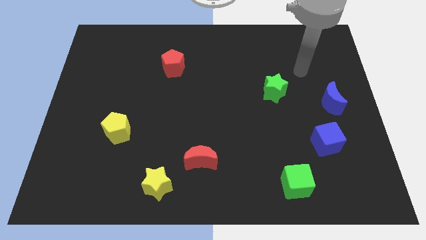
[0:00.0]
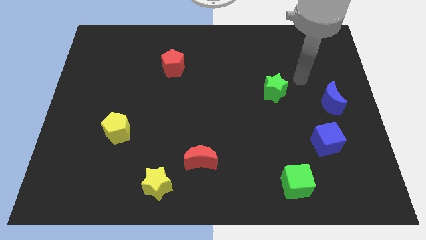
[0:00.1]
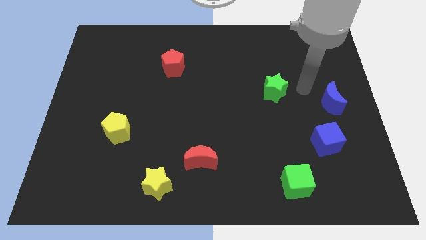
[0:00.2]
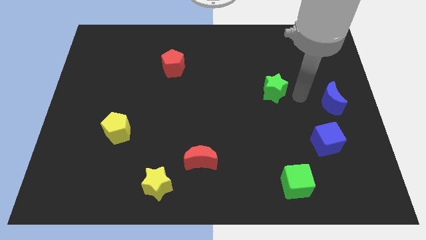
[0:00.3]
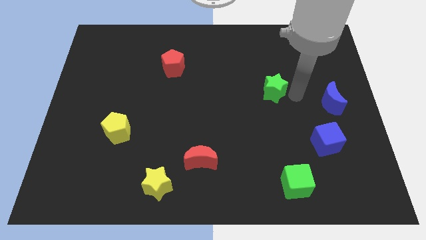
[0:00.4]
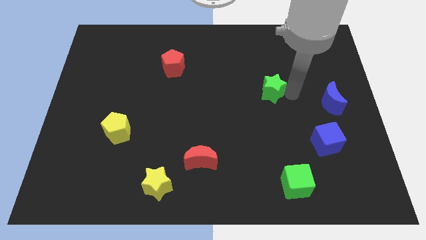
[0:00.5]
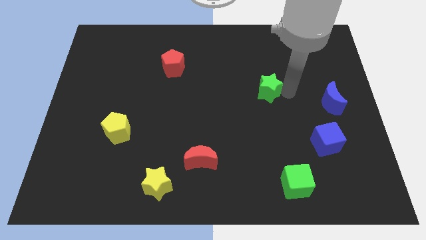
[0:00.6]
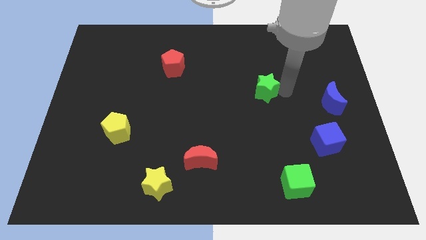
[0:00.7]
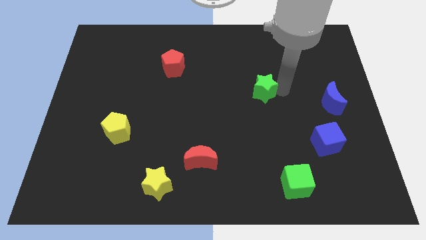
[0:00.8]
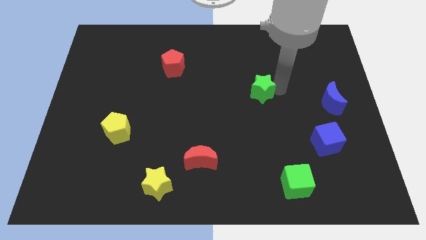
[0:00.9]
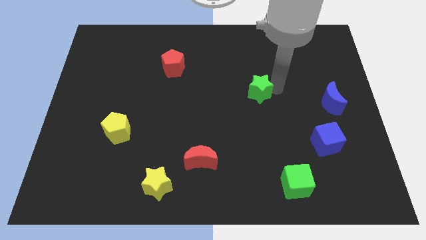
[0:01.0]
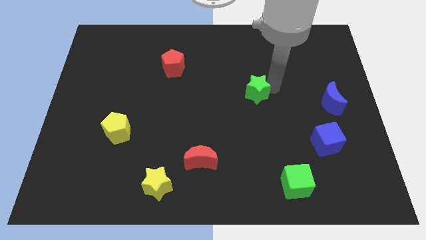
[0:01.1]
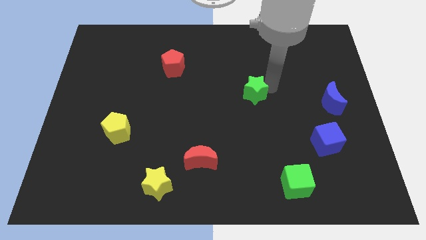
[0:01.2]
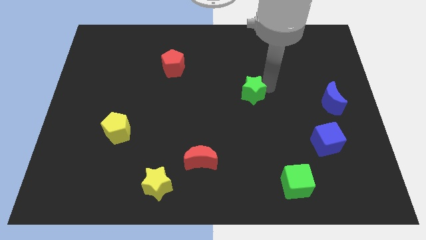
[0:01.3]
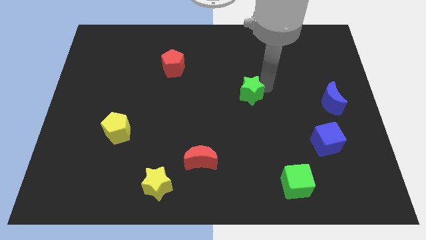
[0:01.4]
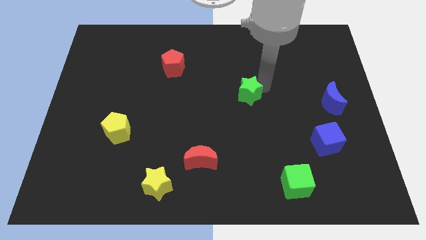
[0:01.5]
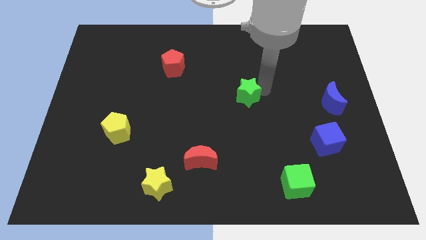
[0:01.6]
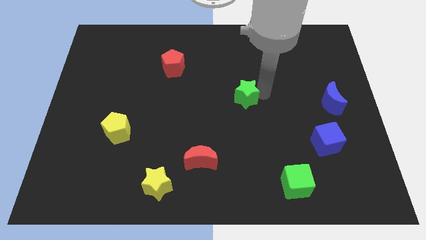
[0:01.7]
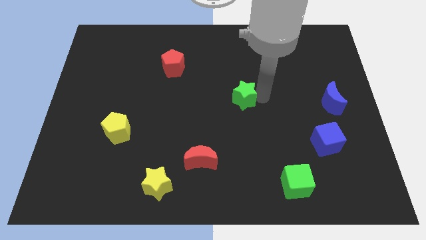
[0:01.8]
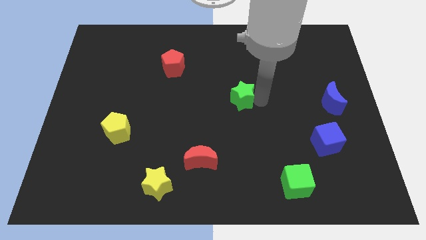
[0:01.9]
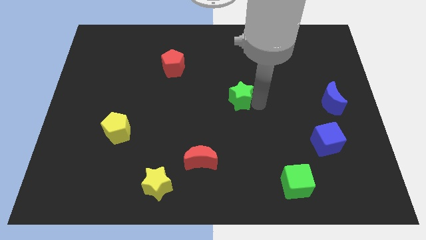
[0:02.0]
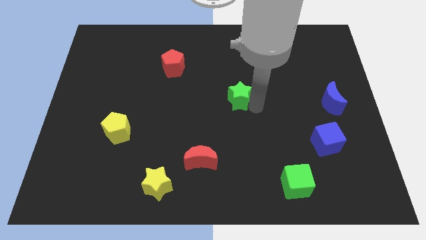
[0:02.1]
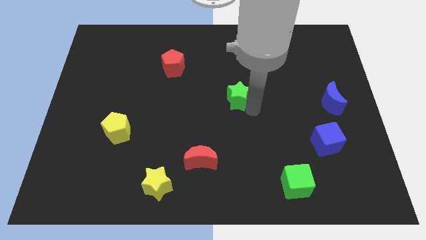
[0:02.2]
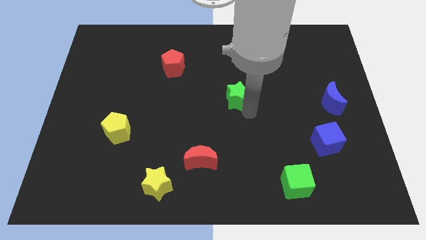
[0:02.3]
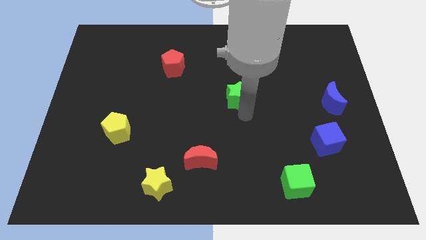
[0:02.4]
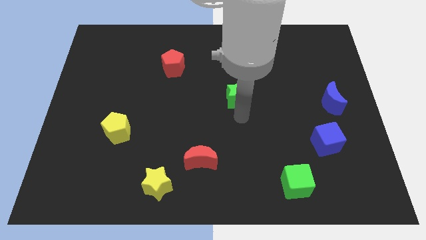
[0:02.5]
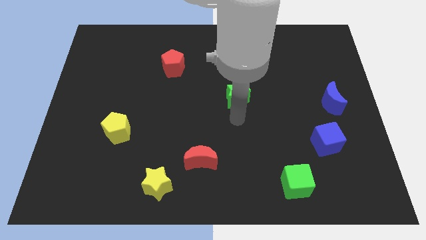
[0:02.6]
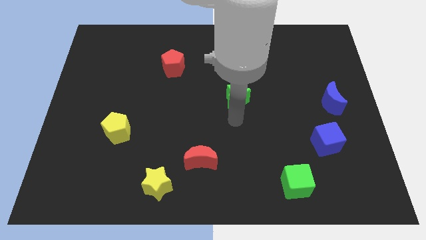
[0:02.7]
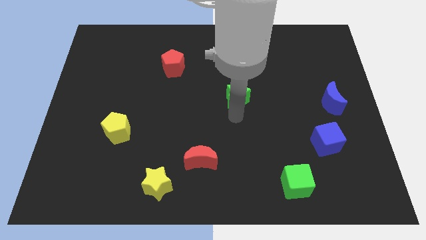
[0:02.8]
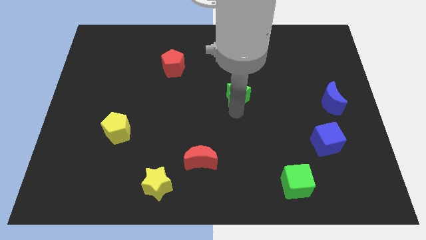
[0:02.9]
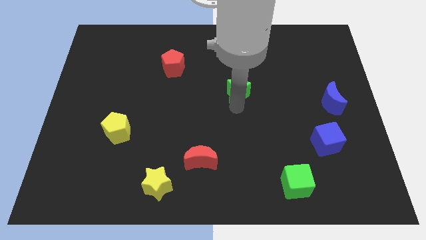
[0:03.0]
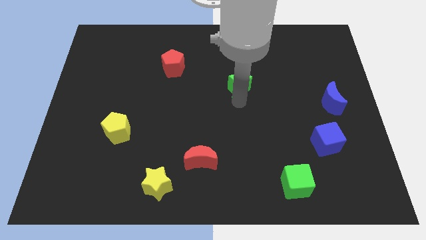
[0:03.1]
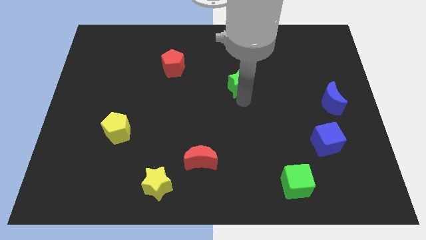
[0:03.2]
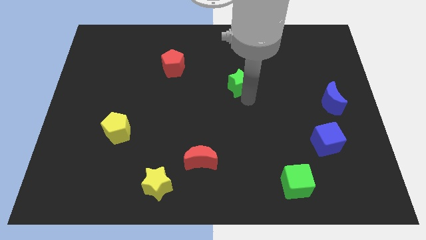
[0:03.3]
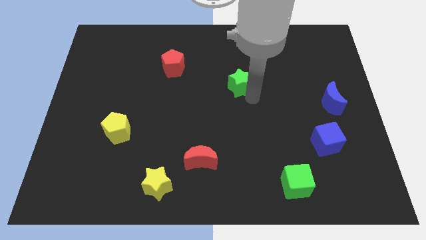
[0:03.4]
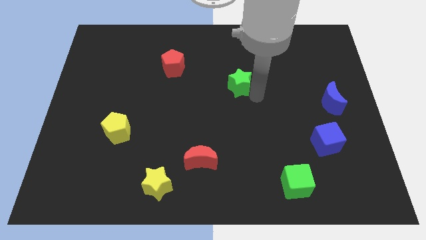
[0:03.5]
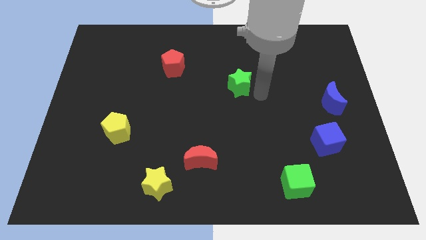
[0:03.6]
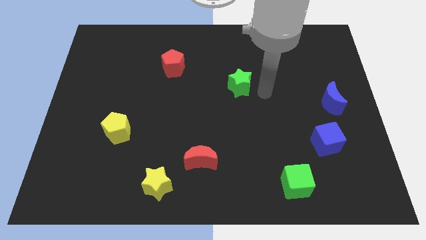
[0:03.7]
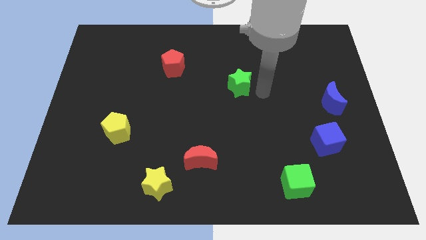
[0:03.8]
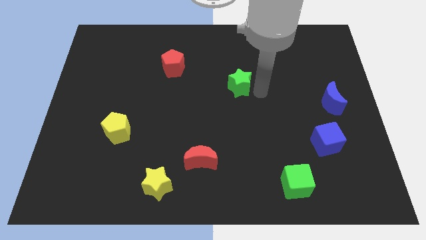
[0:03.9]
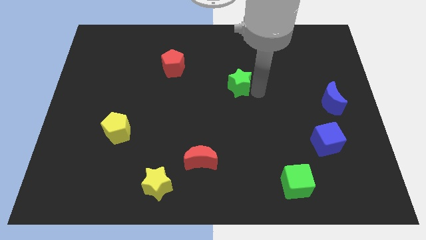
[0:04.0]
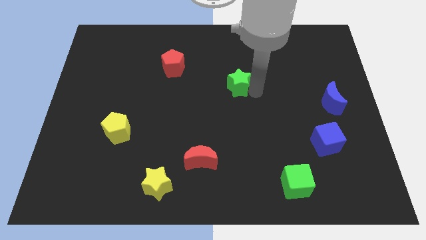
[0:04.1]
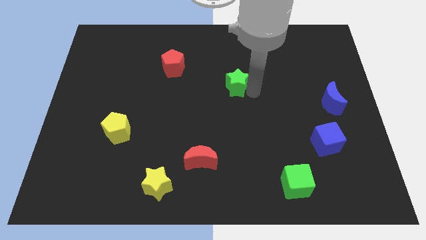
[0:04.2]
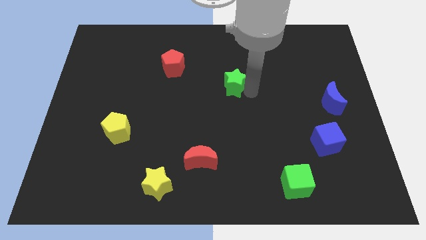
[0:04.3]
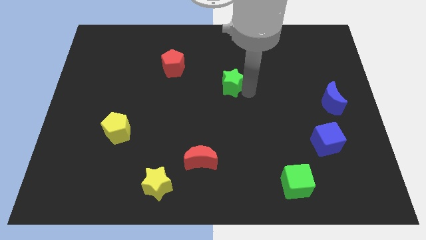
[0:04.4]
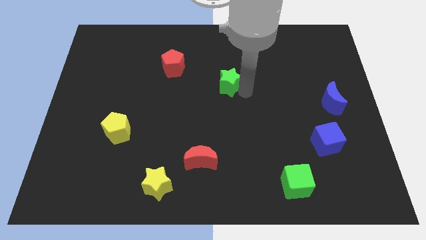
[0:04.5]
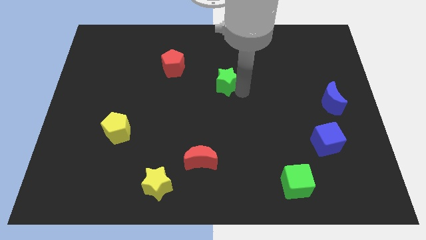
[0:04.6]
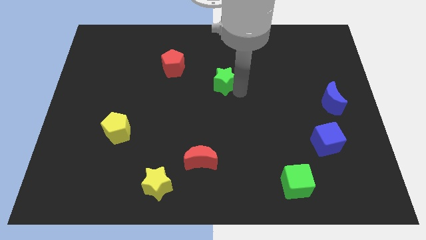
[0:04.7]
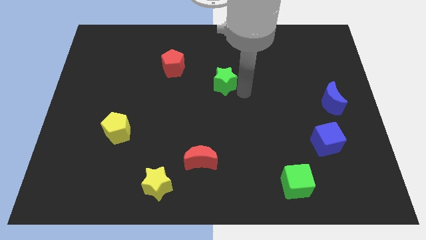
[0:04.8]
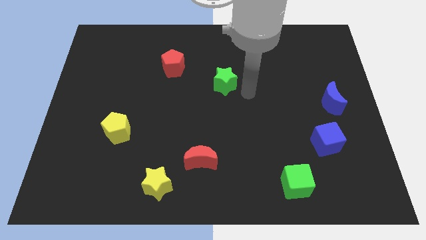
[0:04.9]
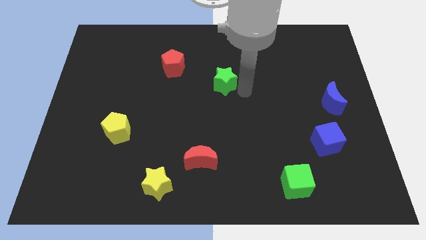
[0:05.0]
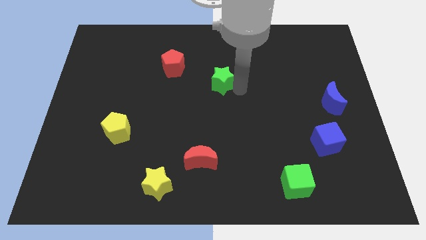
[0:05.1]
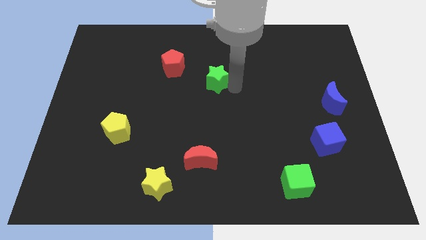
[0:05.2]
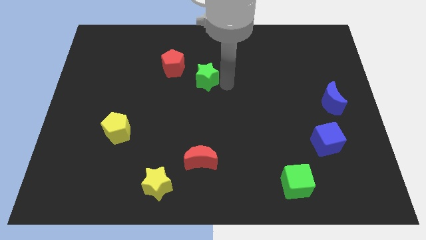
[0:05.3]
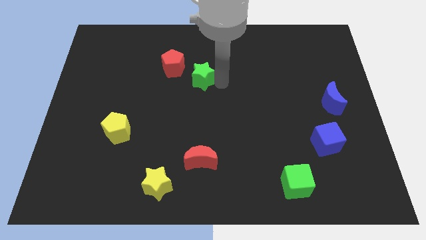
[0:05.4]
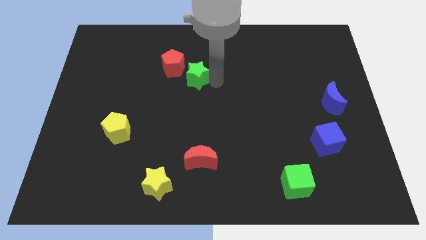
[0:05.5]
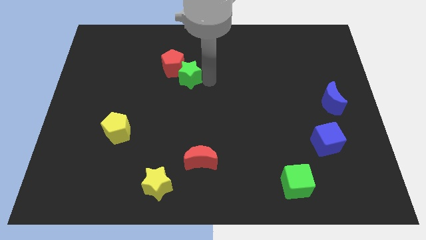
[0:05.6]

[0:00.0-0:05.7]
slide the green star to the red pentagon

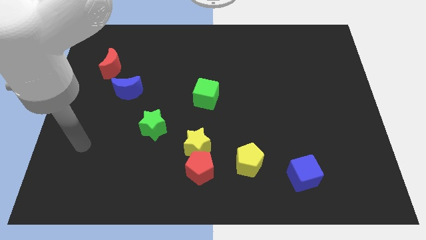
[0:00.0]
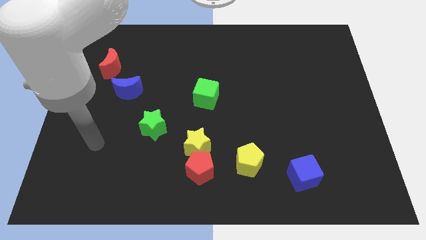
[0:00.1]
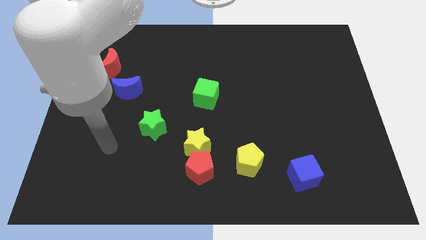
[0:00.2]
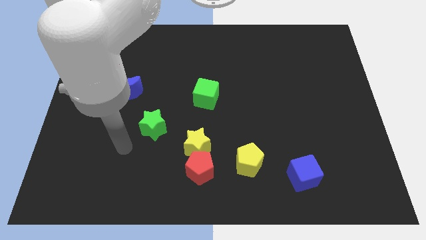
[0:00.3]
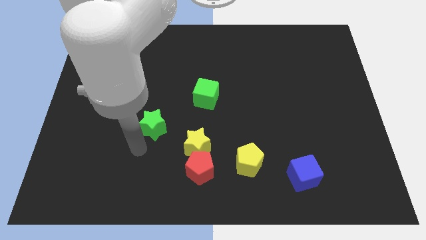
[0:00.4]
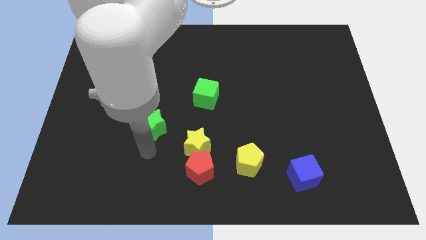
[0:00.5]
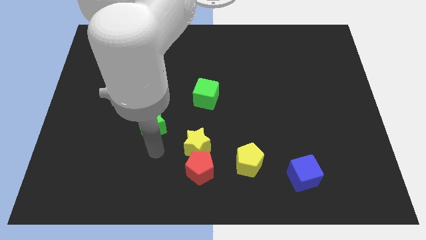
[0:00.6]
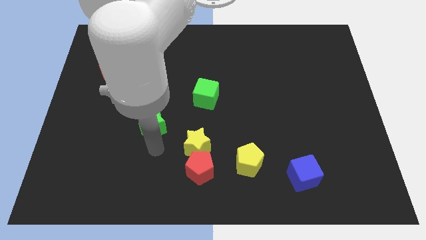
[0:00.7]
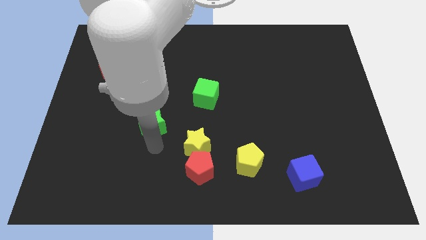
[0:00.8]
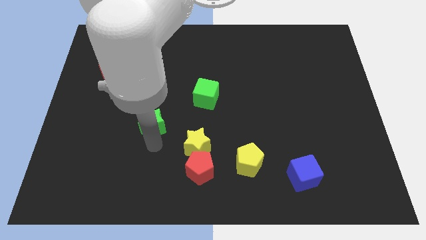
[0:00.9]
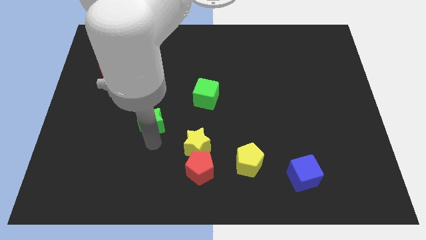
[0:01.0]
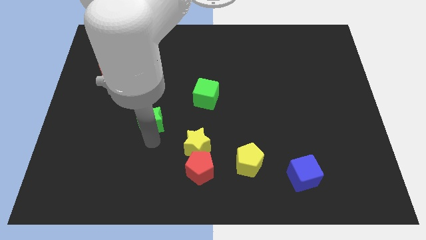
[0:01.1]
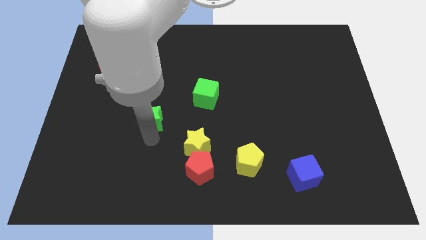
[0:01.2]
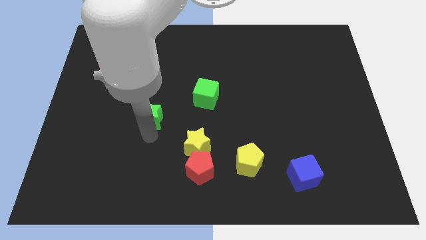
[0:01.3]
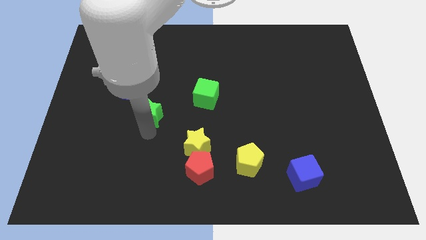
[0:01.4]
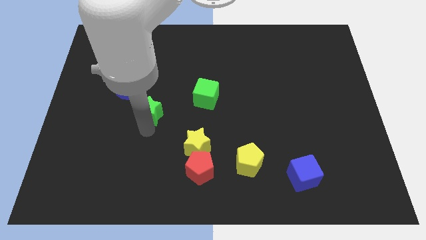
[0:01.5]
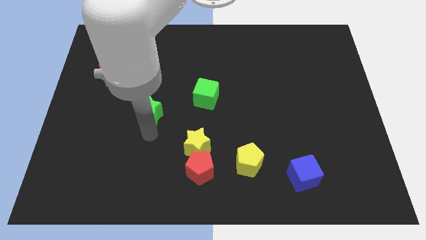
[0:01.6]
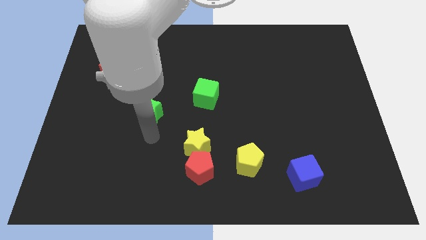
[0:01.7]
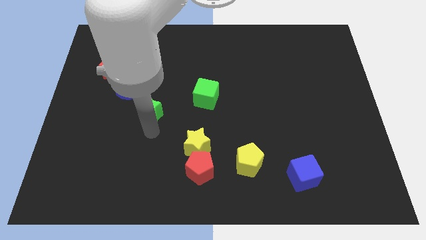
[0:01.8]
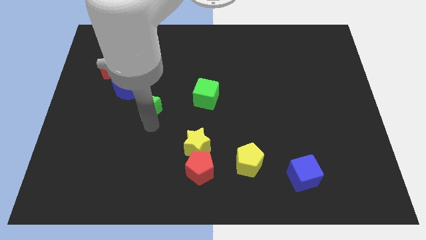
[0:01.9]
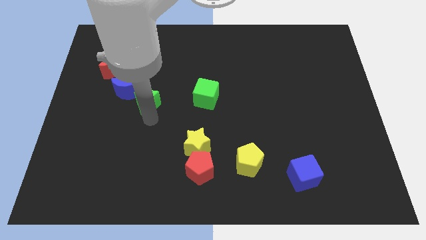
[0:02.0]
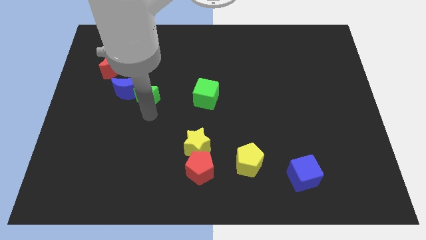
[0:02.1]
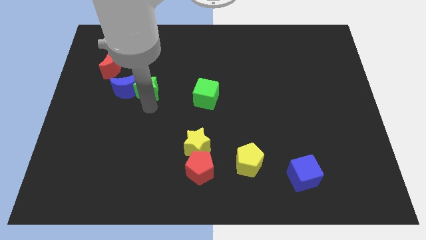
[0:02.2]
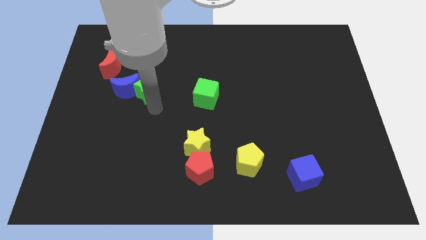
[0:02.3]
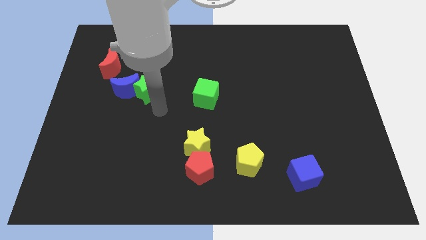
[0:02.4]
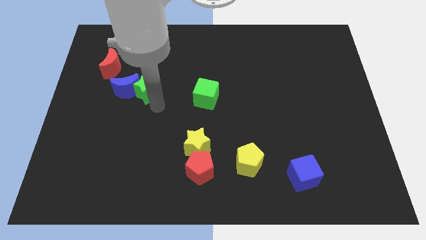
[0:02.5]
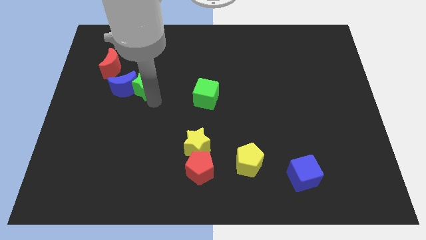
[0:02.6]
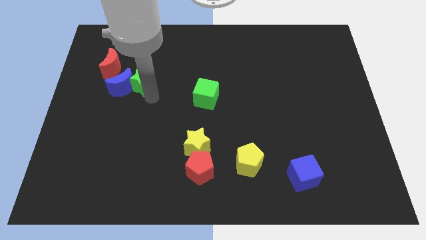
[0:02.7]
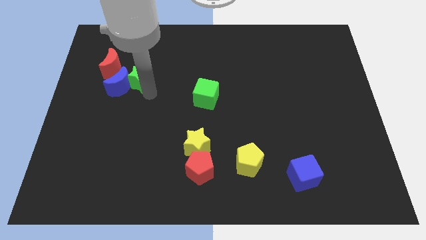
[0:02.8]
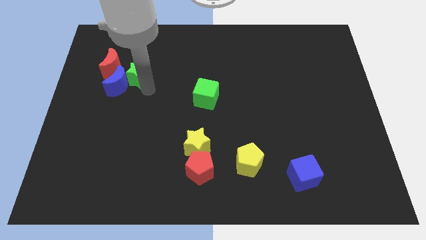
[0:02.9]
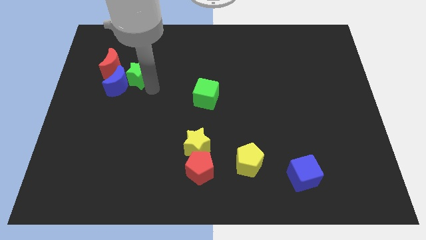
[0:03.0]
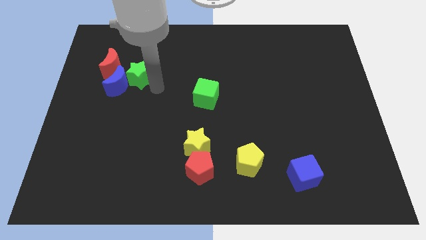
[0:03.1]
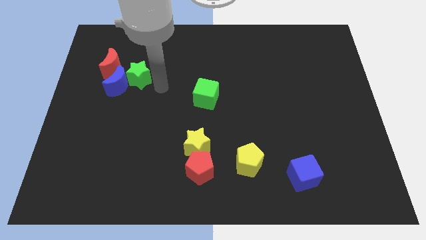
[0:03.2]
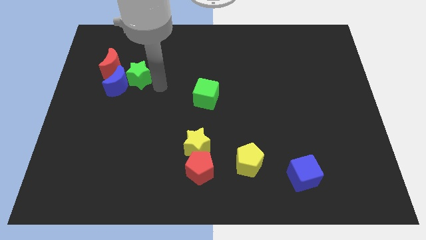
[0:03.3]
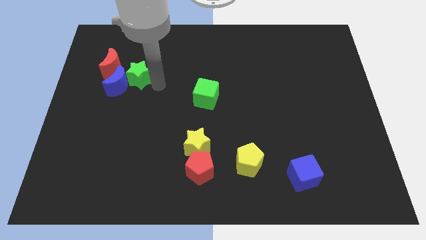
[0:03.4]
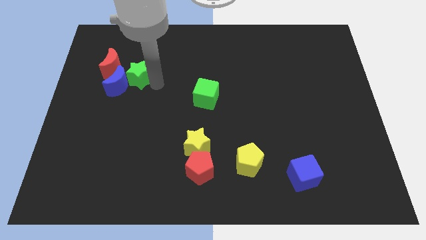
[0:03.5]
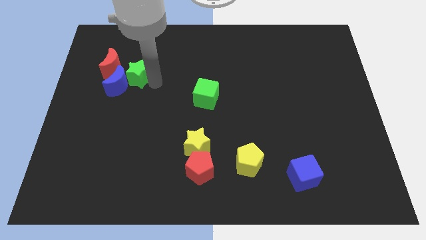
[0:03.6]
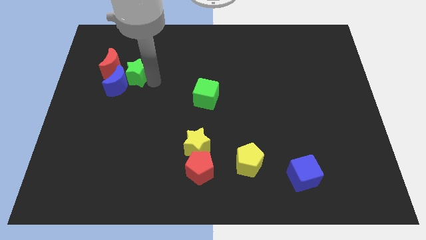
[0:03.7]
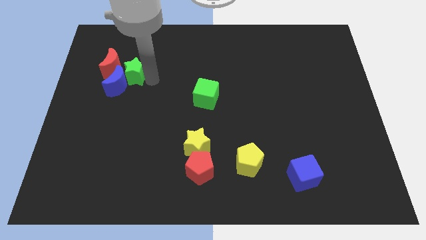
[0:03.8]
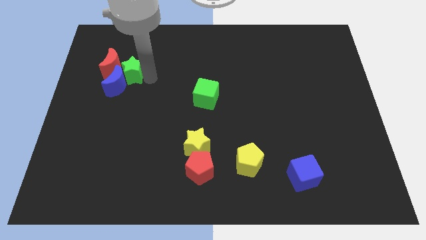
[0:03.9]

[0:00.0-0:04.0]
slide the green star towards the red moon
